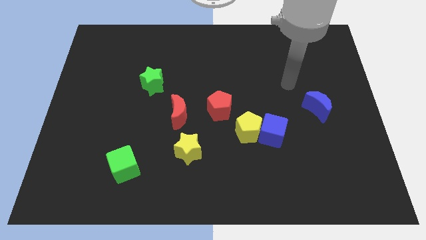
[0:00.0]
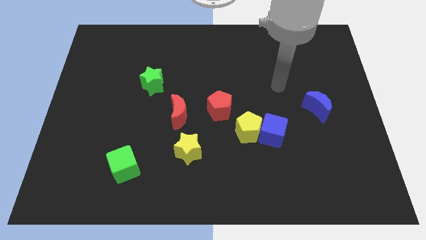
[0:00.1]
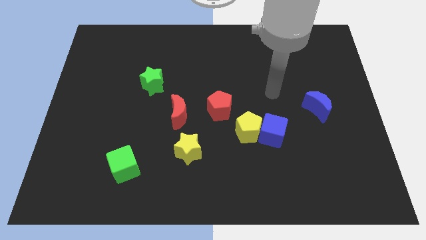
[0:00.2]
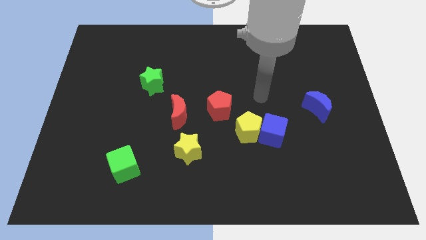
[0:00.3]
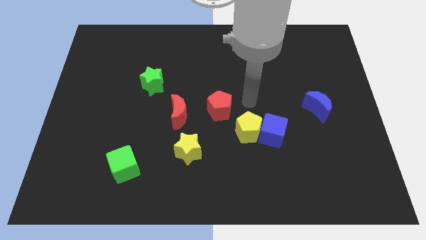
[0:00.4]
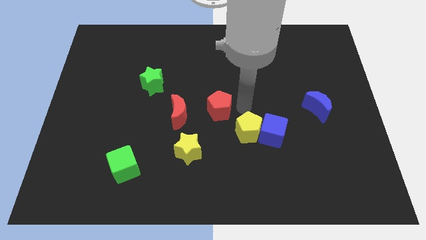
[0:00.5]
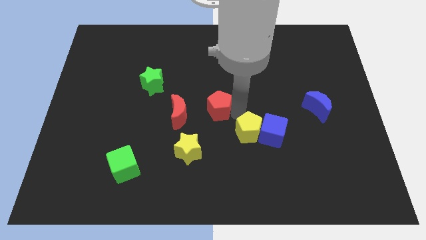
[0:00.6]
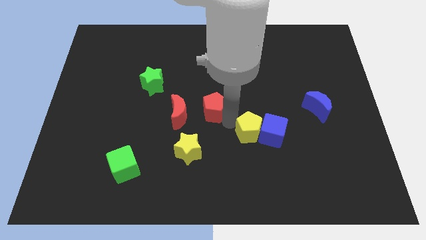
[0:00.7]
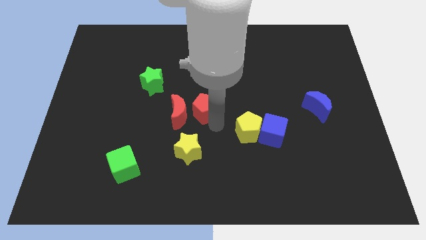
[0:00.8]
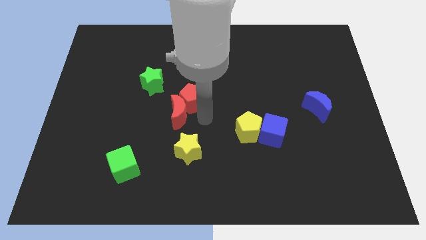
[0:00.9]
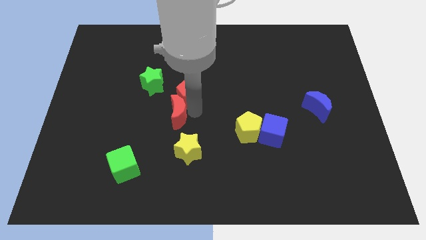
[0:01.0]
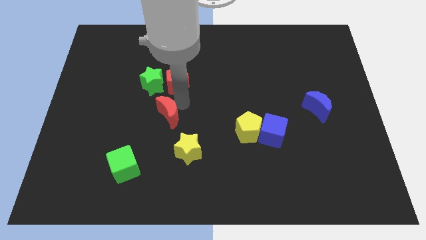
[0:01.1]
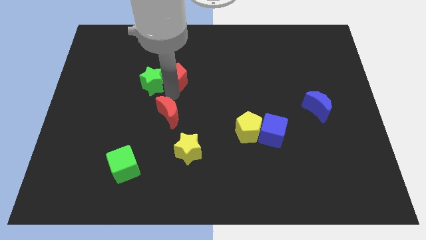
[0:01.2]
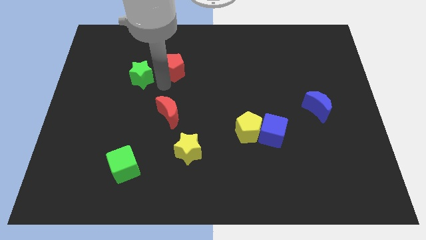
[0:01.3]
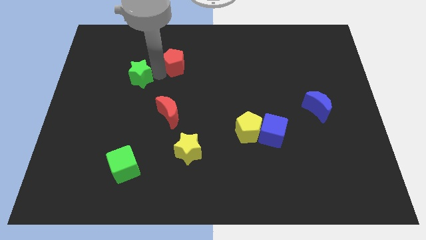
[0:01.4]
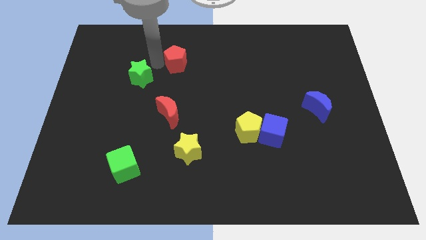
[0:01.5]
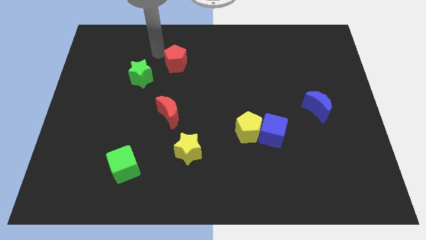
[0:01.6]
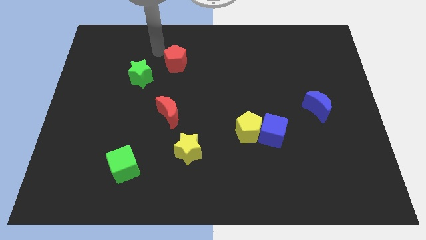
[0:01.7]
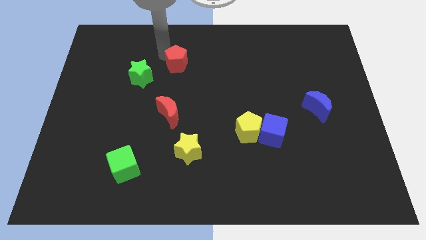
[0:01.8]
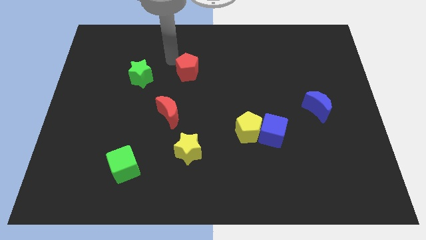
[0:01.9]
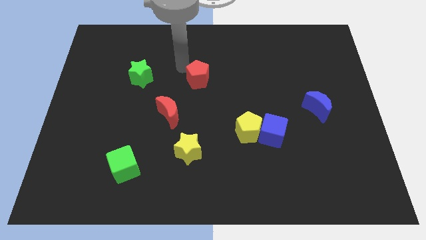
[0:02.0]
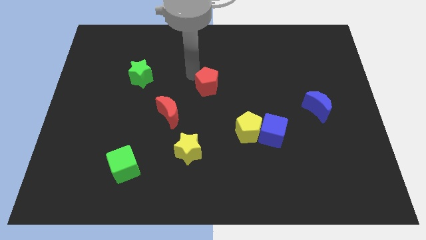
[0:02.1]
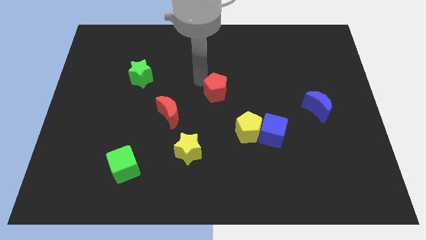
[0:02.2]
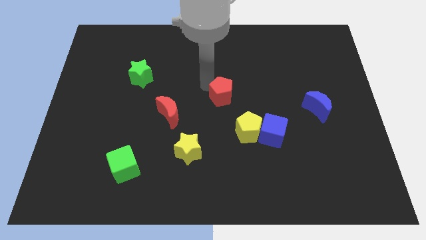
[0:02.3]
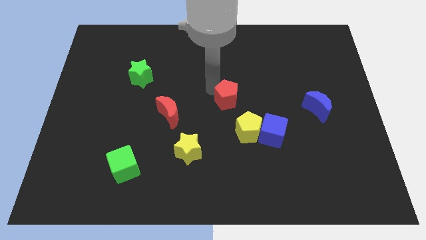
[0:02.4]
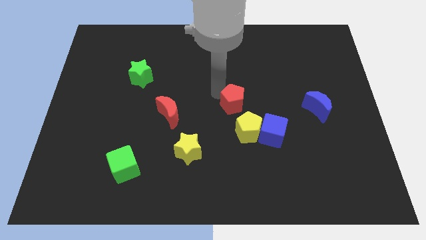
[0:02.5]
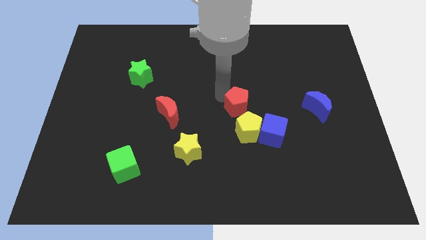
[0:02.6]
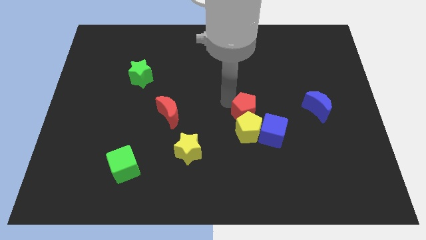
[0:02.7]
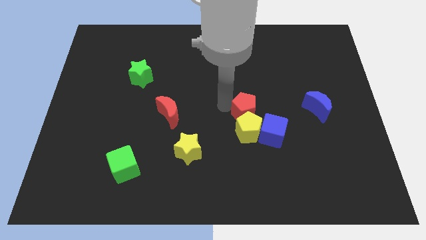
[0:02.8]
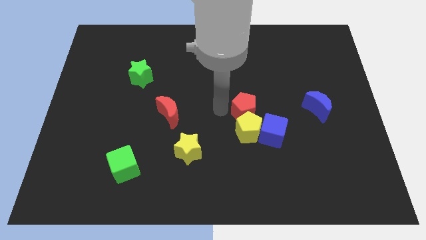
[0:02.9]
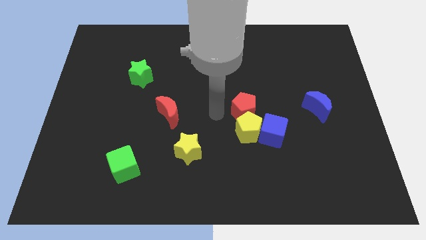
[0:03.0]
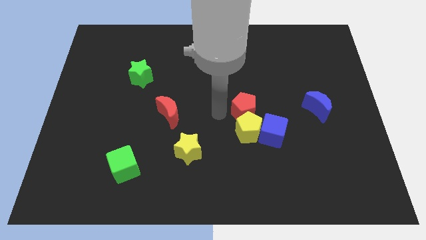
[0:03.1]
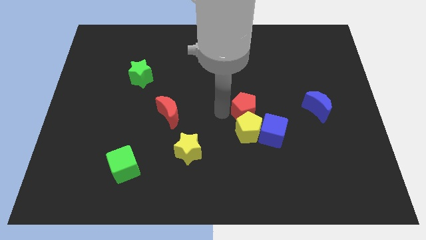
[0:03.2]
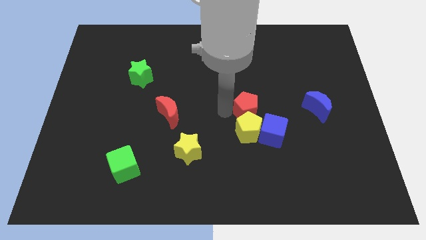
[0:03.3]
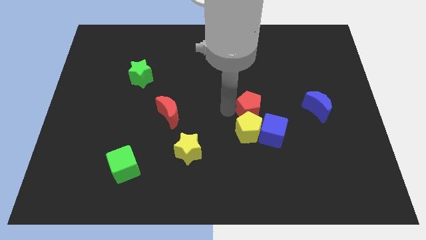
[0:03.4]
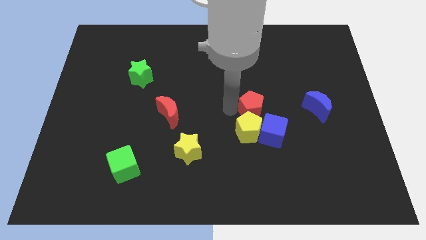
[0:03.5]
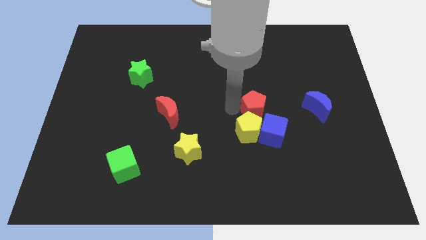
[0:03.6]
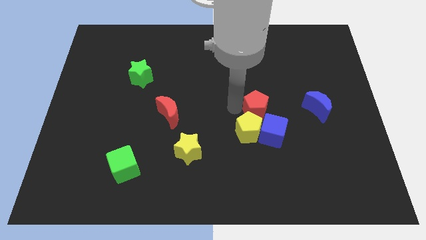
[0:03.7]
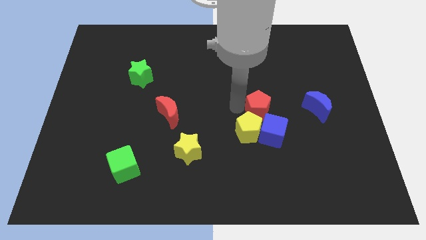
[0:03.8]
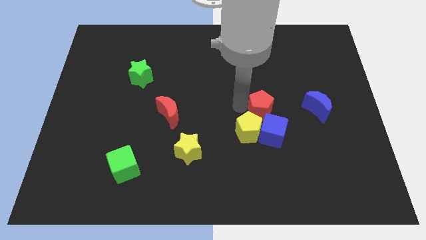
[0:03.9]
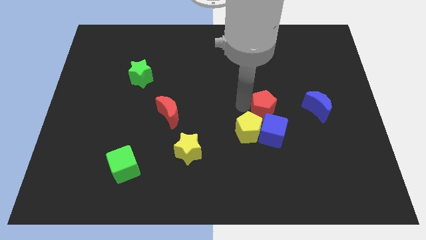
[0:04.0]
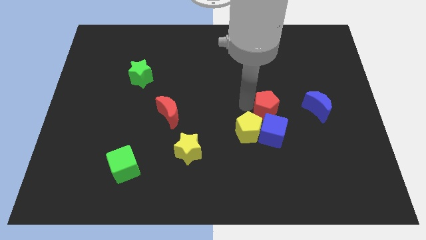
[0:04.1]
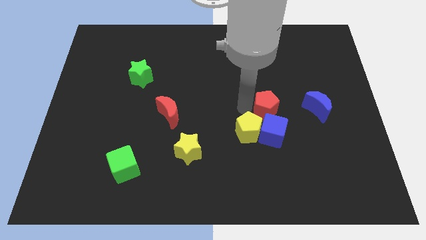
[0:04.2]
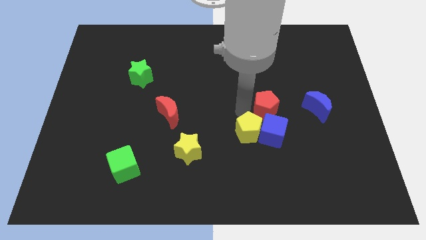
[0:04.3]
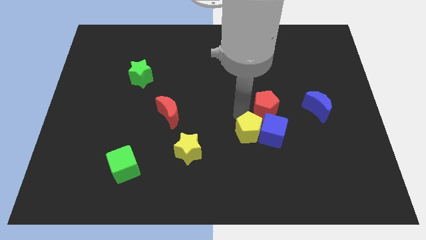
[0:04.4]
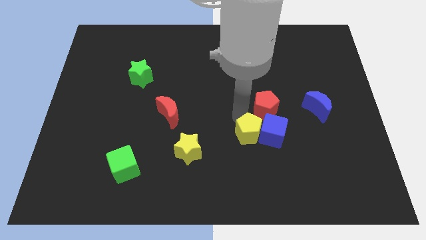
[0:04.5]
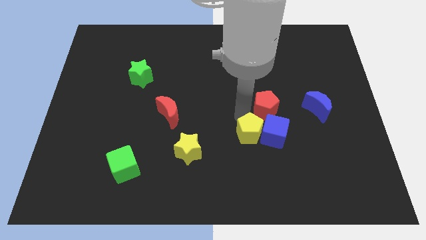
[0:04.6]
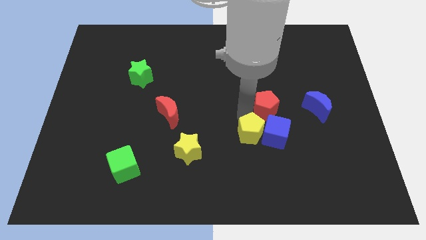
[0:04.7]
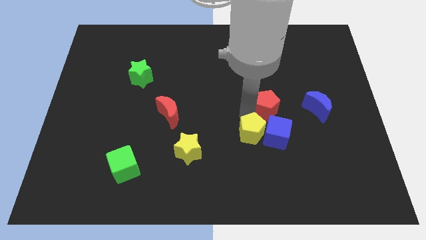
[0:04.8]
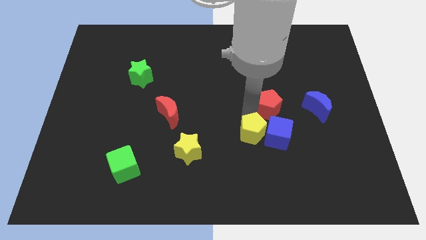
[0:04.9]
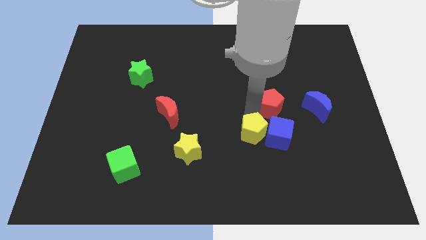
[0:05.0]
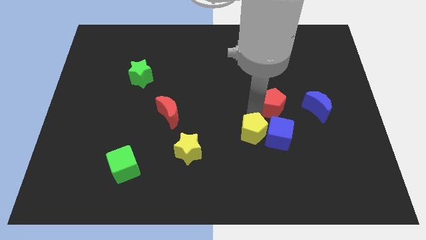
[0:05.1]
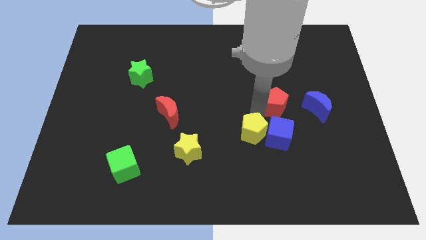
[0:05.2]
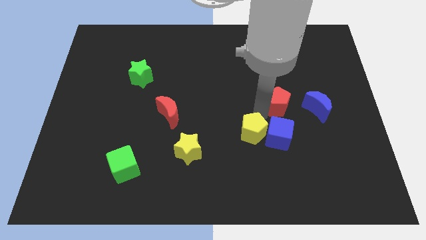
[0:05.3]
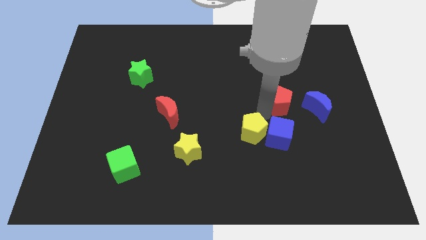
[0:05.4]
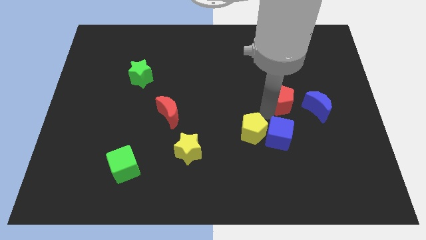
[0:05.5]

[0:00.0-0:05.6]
move the red pentagon to the top left side of the blue moon

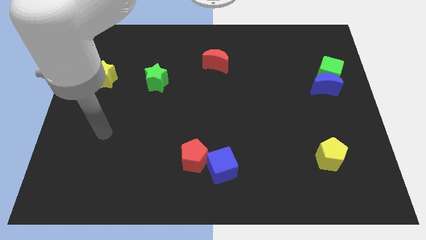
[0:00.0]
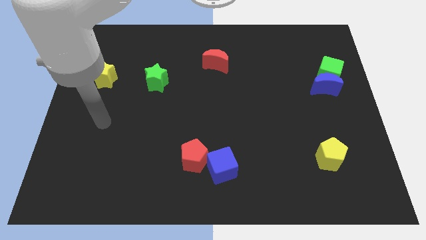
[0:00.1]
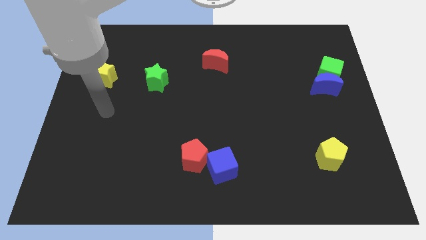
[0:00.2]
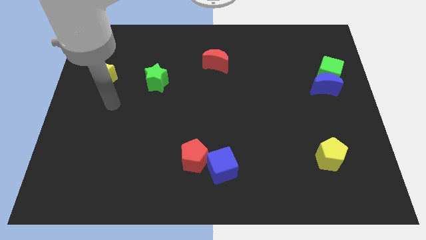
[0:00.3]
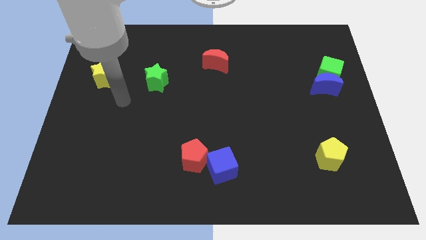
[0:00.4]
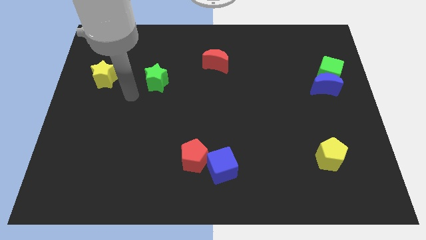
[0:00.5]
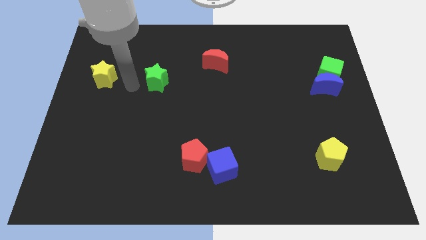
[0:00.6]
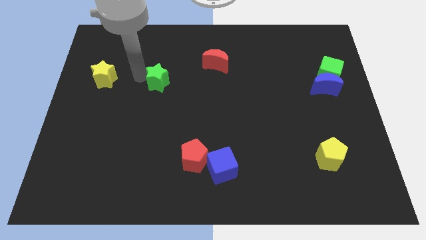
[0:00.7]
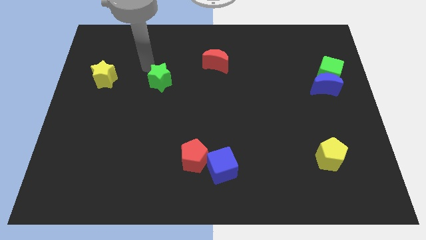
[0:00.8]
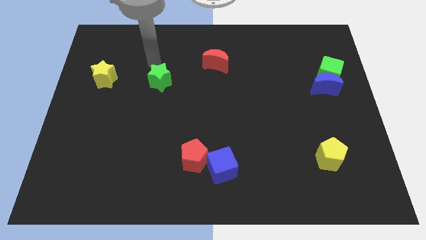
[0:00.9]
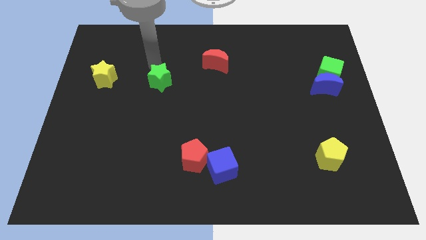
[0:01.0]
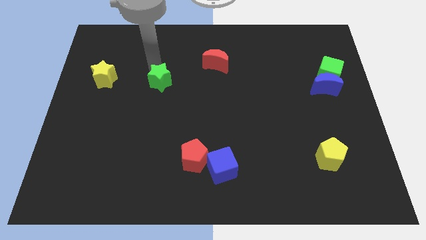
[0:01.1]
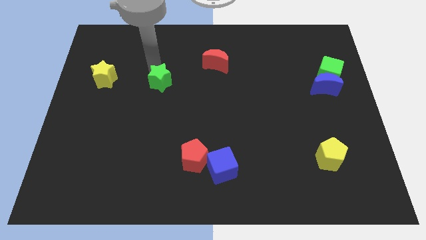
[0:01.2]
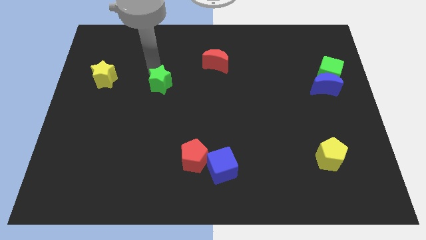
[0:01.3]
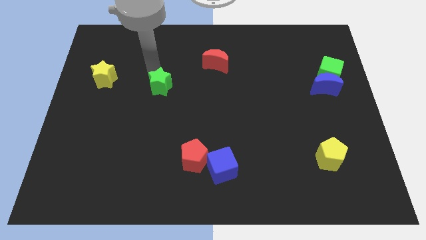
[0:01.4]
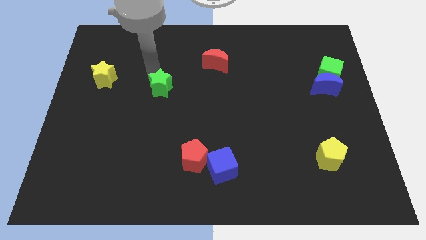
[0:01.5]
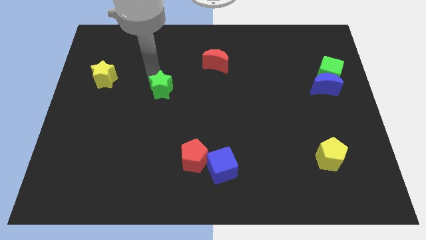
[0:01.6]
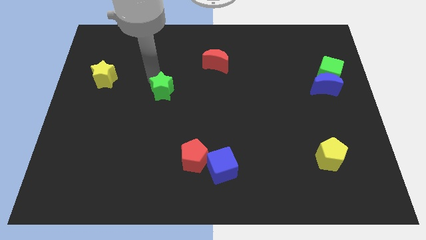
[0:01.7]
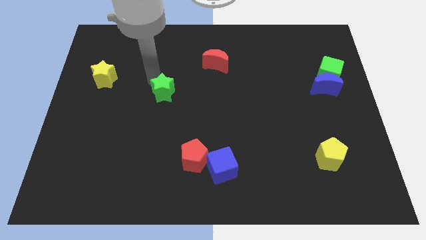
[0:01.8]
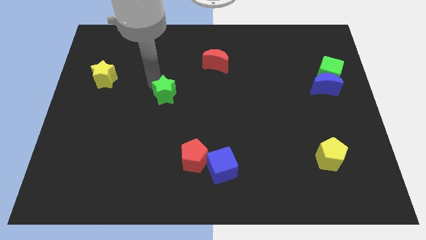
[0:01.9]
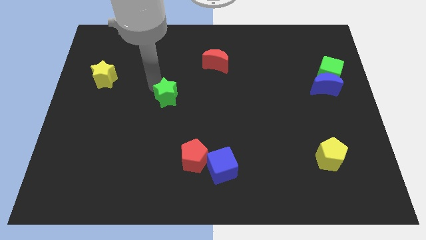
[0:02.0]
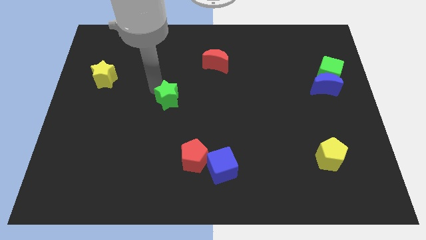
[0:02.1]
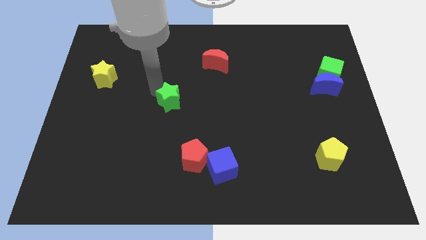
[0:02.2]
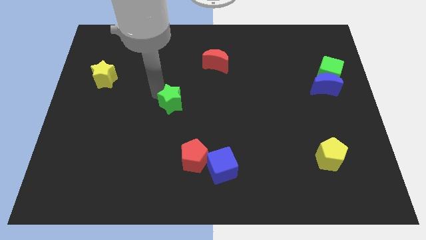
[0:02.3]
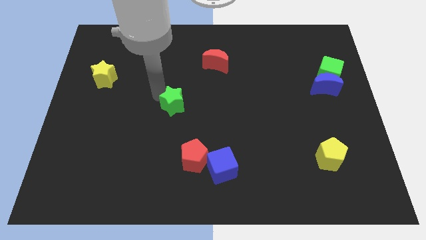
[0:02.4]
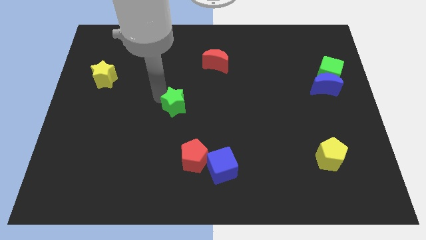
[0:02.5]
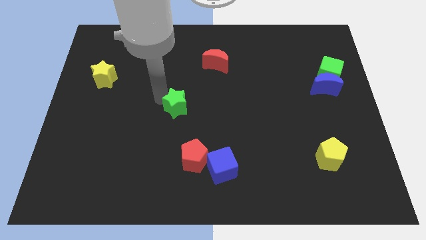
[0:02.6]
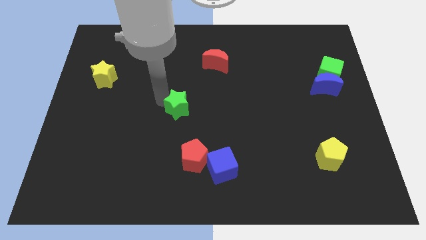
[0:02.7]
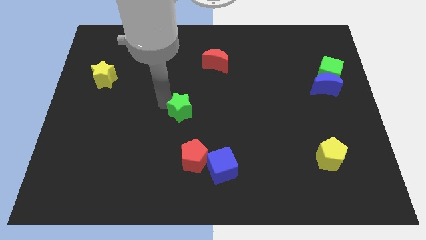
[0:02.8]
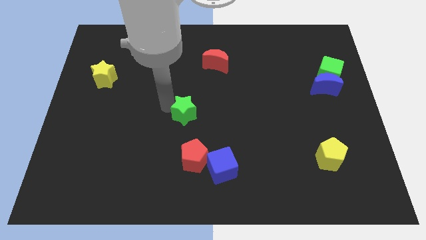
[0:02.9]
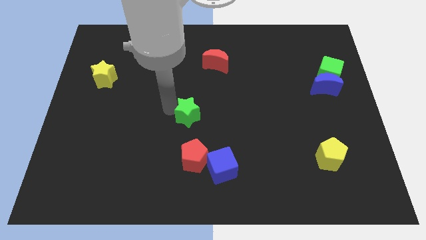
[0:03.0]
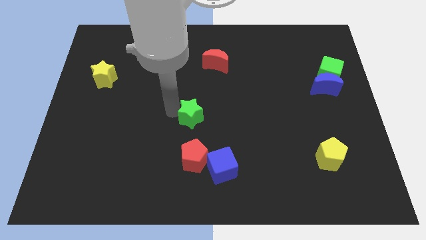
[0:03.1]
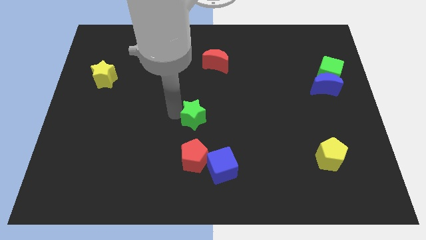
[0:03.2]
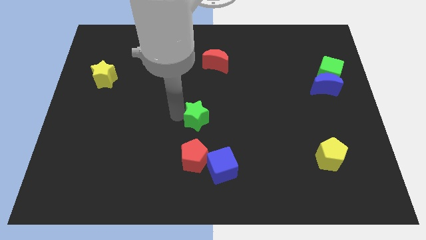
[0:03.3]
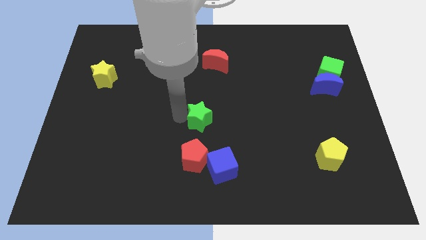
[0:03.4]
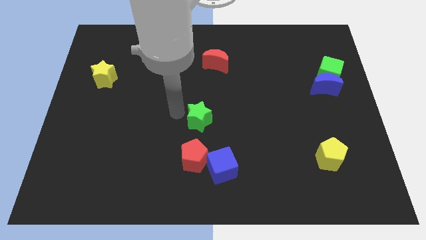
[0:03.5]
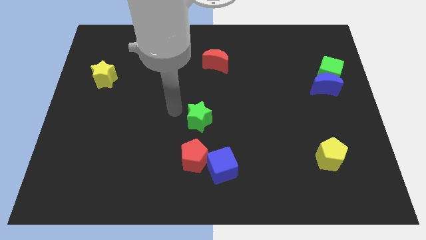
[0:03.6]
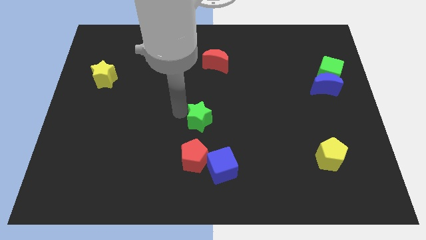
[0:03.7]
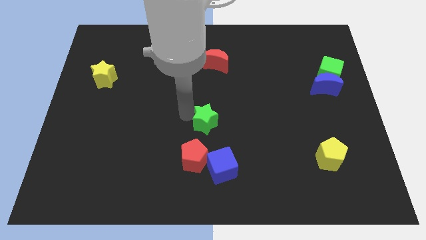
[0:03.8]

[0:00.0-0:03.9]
push the green star to the top of the blue cube
